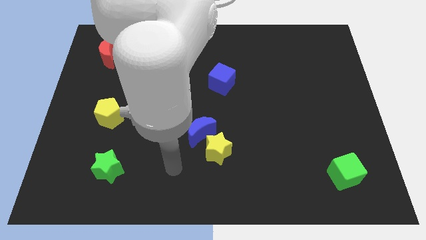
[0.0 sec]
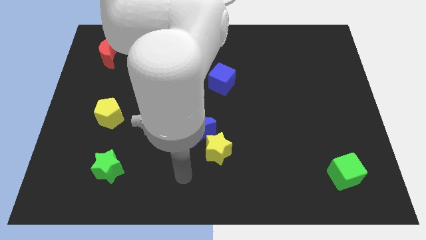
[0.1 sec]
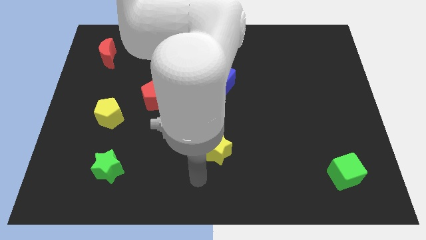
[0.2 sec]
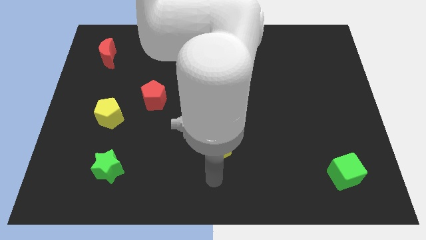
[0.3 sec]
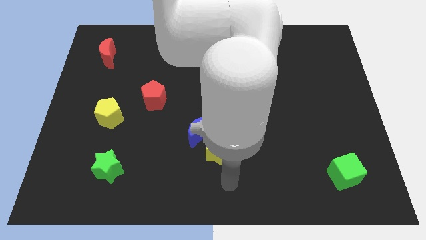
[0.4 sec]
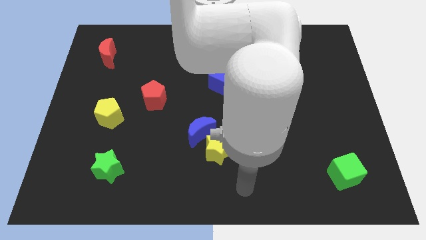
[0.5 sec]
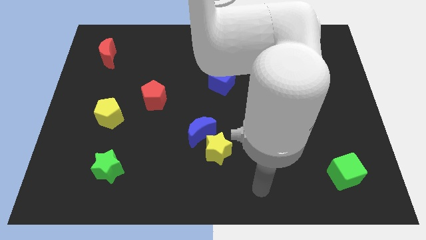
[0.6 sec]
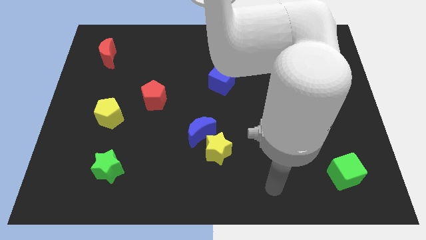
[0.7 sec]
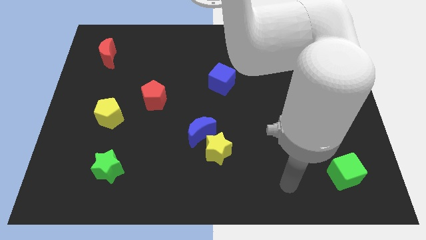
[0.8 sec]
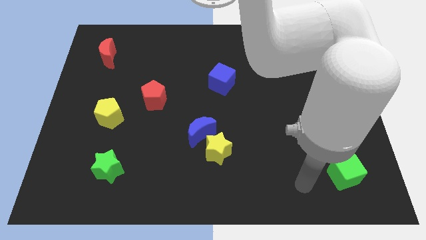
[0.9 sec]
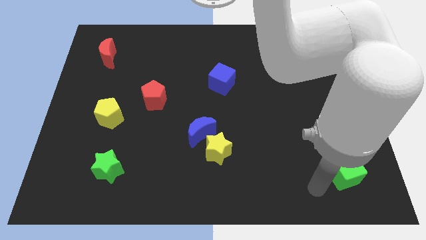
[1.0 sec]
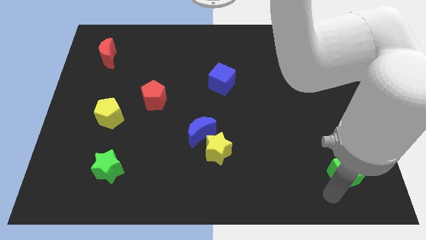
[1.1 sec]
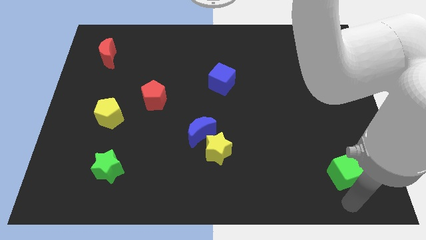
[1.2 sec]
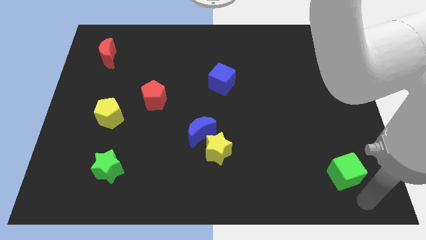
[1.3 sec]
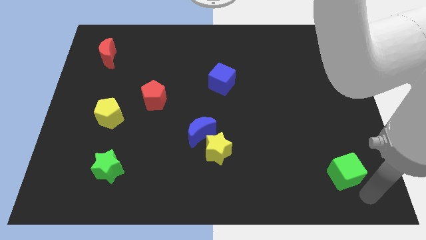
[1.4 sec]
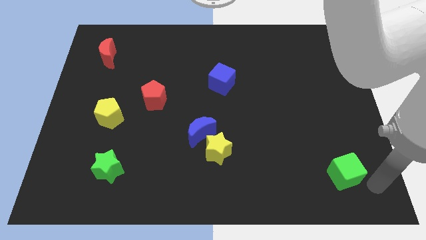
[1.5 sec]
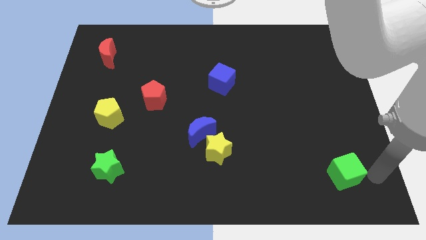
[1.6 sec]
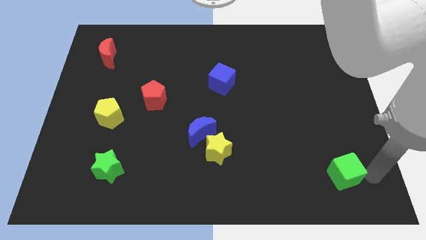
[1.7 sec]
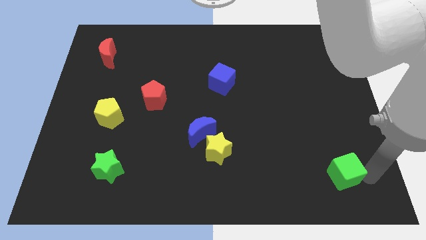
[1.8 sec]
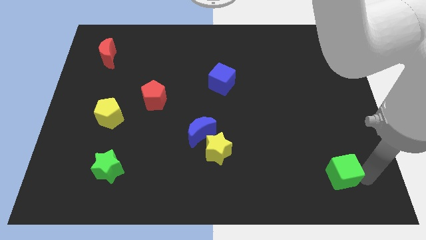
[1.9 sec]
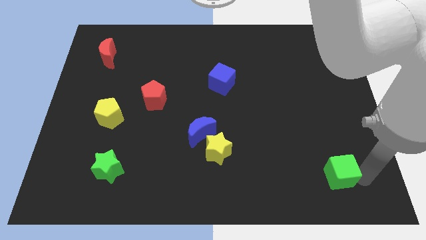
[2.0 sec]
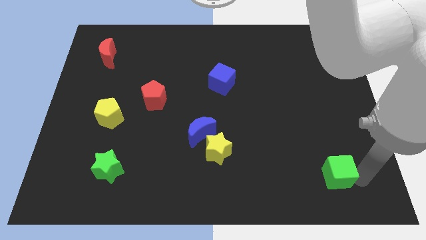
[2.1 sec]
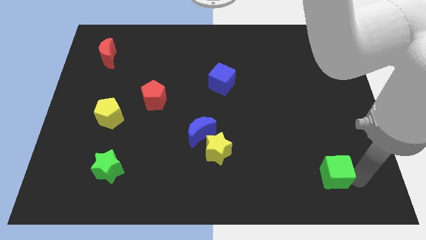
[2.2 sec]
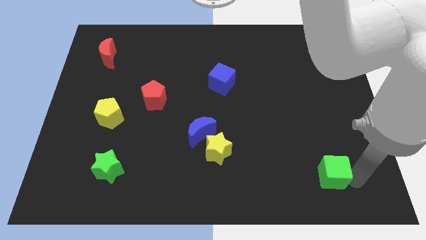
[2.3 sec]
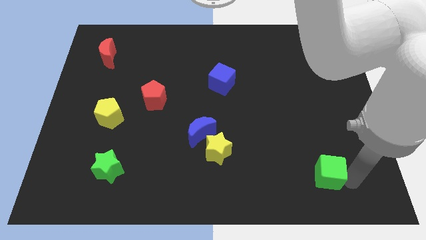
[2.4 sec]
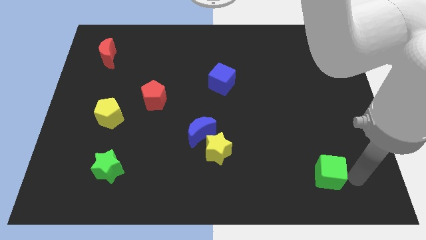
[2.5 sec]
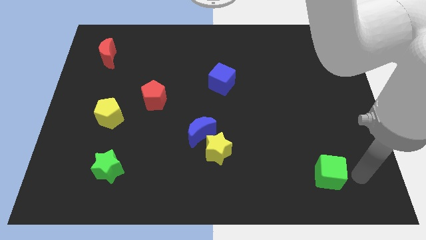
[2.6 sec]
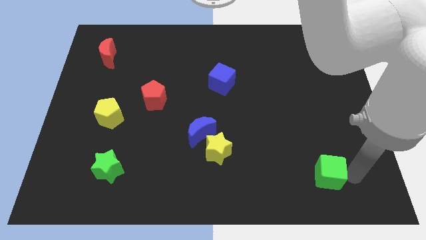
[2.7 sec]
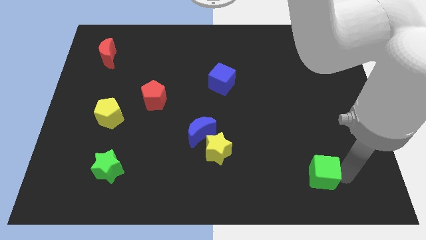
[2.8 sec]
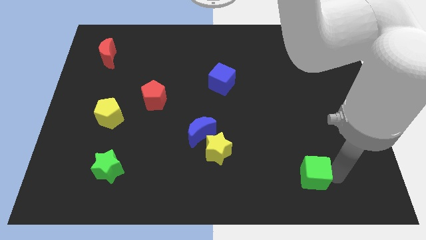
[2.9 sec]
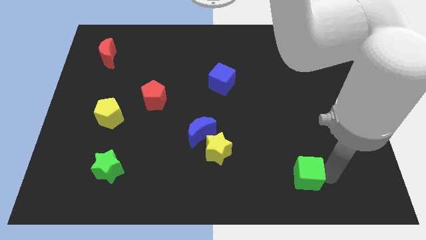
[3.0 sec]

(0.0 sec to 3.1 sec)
push the green cube left somewhat

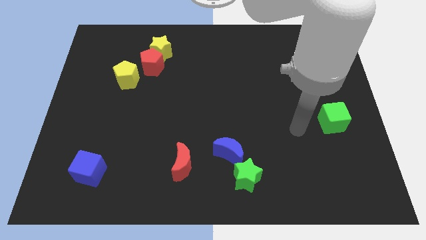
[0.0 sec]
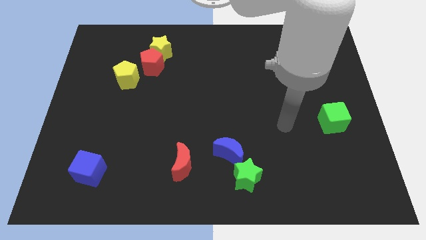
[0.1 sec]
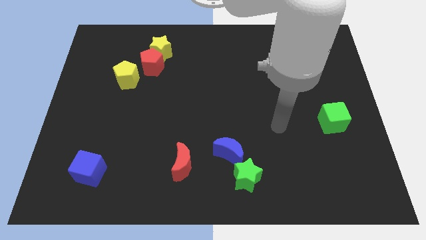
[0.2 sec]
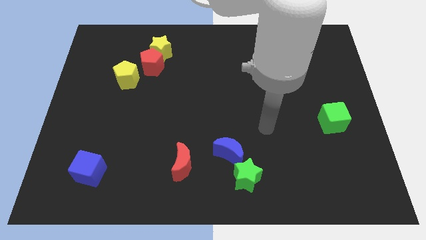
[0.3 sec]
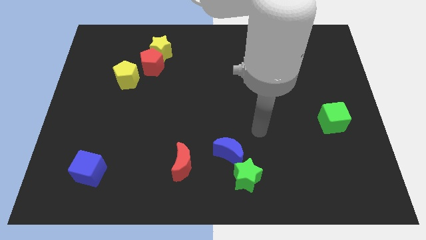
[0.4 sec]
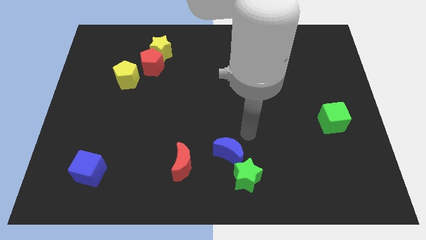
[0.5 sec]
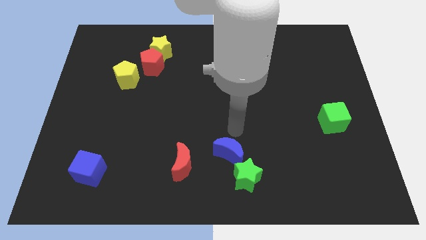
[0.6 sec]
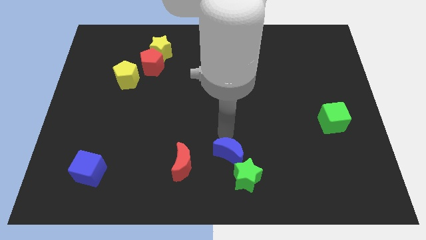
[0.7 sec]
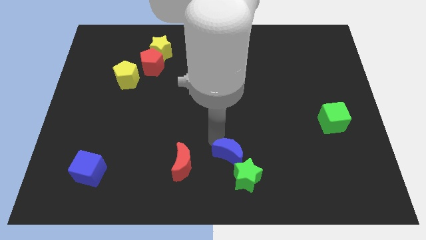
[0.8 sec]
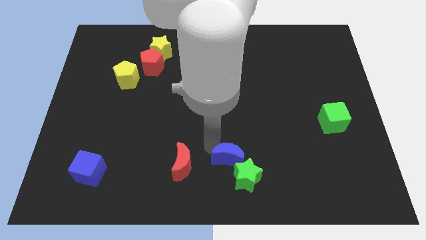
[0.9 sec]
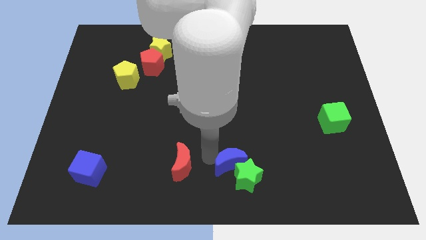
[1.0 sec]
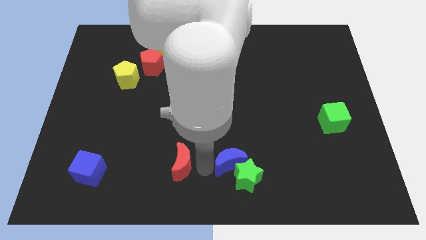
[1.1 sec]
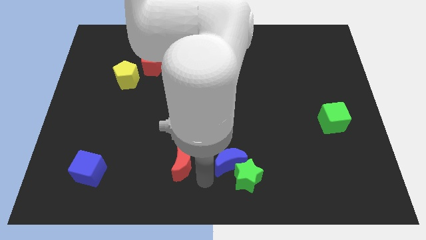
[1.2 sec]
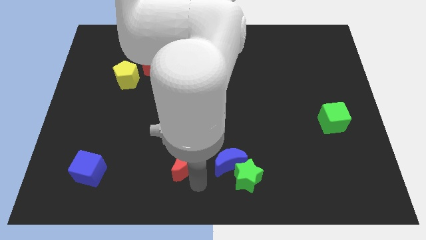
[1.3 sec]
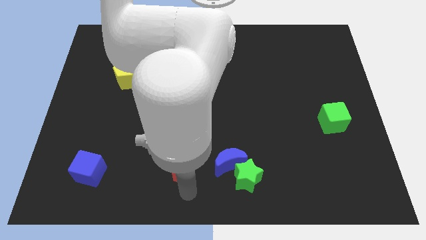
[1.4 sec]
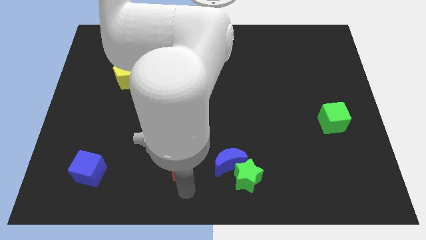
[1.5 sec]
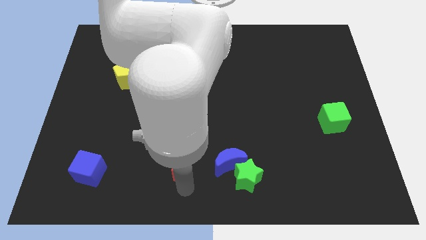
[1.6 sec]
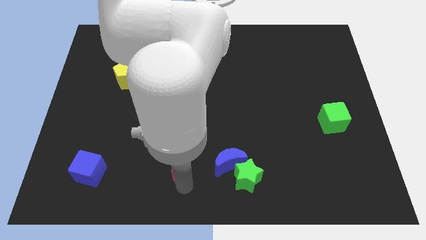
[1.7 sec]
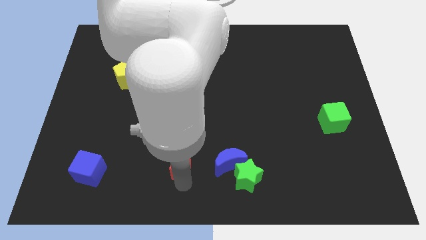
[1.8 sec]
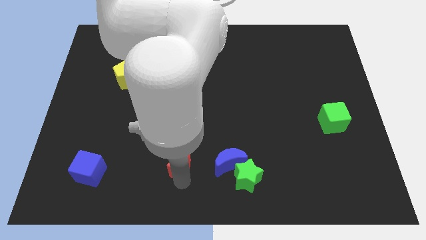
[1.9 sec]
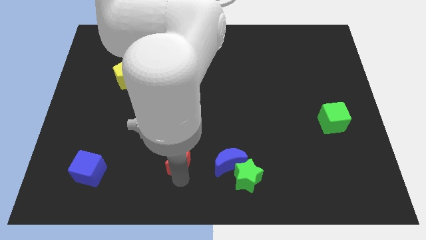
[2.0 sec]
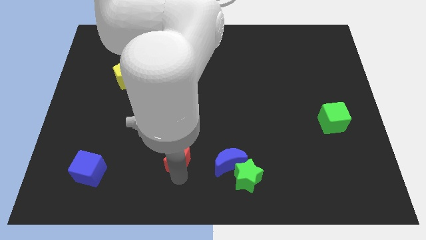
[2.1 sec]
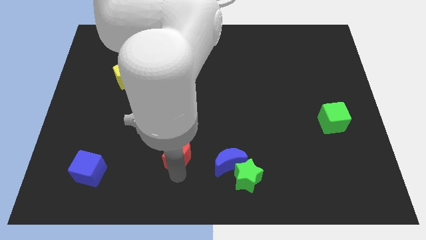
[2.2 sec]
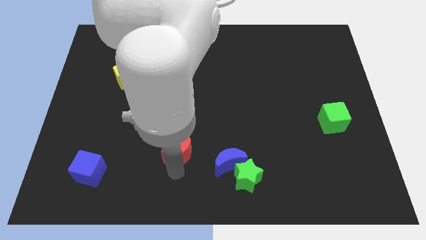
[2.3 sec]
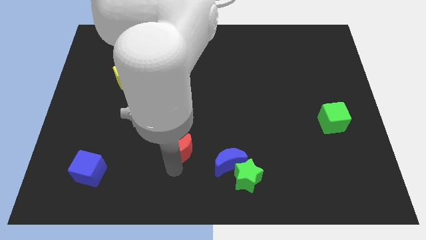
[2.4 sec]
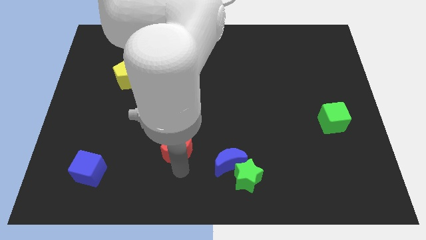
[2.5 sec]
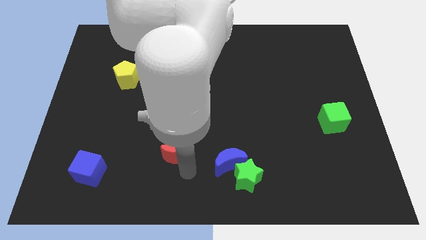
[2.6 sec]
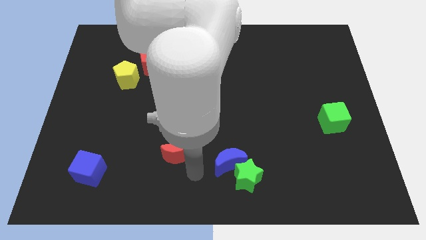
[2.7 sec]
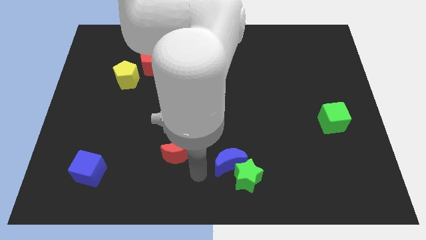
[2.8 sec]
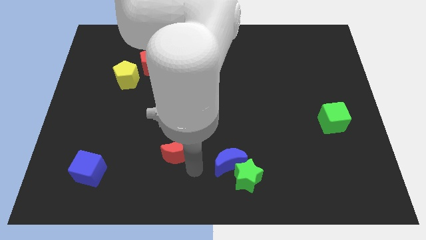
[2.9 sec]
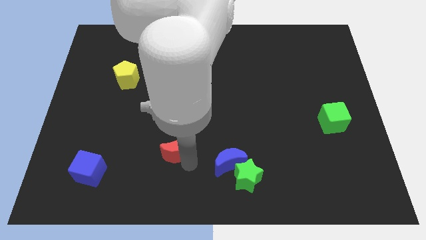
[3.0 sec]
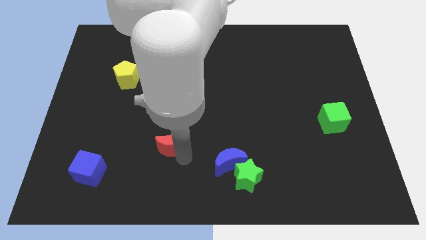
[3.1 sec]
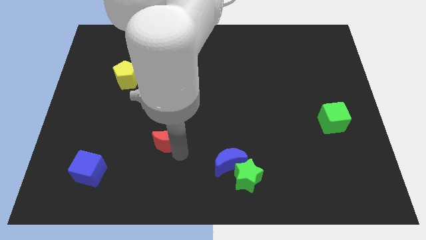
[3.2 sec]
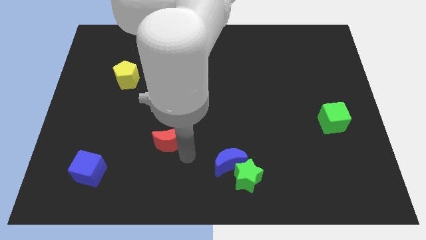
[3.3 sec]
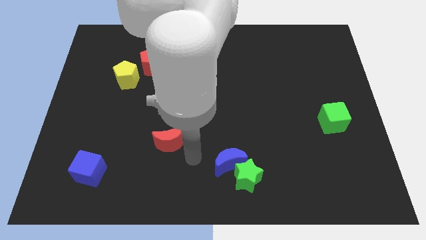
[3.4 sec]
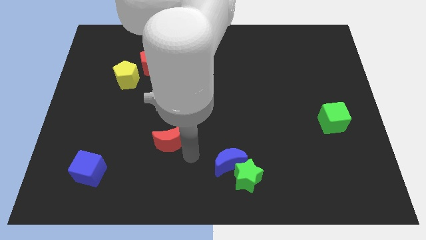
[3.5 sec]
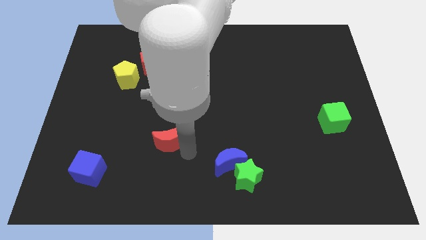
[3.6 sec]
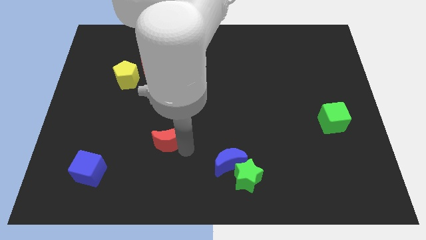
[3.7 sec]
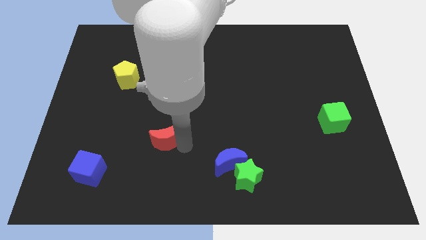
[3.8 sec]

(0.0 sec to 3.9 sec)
slightly slide the red moon upwards and to the left diagonally

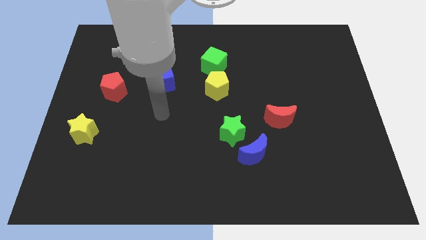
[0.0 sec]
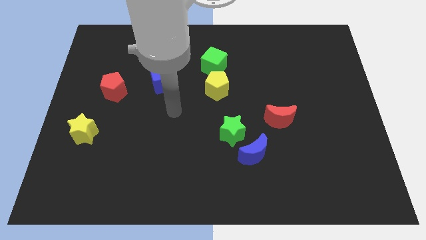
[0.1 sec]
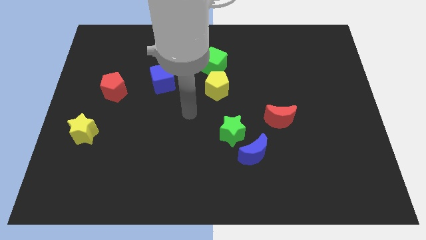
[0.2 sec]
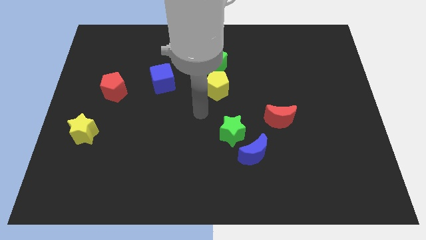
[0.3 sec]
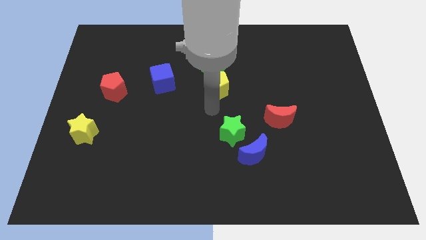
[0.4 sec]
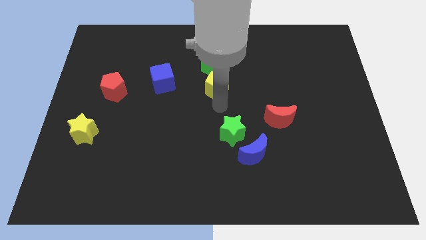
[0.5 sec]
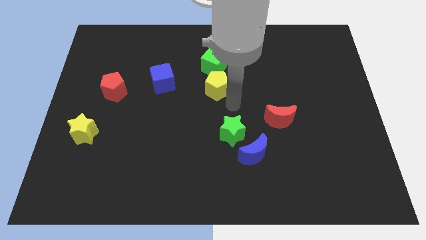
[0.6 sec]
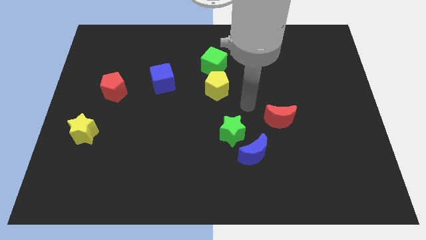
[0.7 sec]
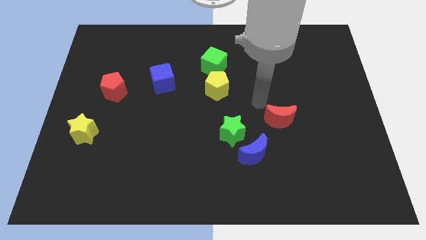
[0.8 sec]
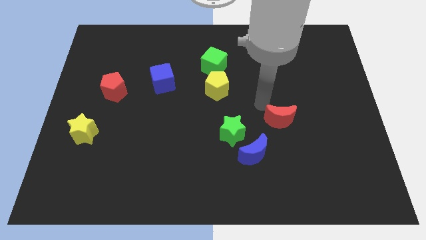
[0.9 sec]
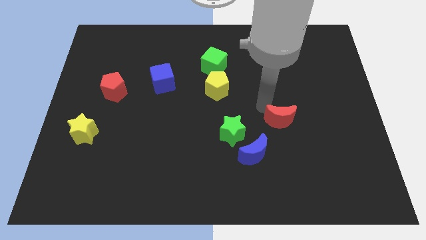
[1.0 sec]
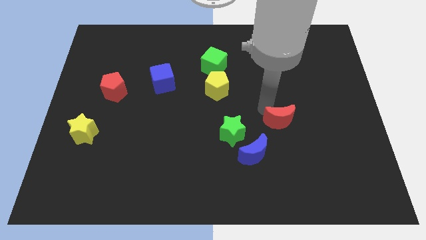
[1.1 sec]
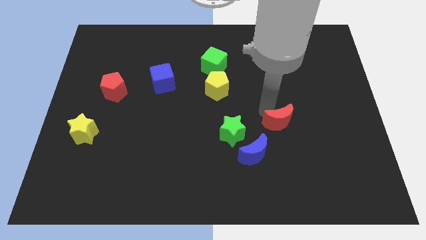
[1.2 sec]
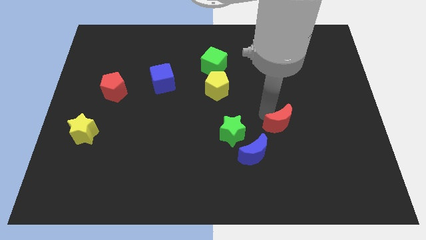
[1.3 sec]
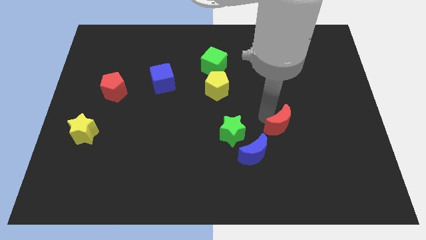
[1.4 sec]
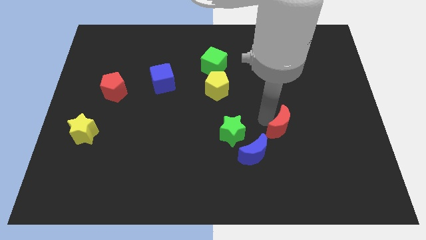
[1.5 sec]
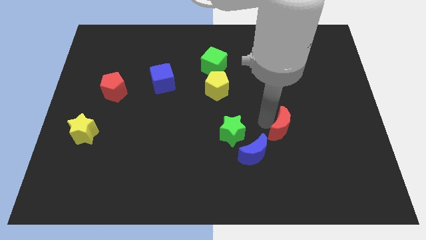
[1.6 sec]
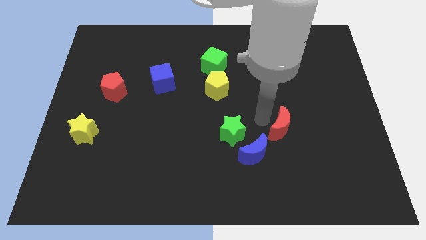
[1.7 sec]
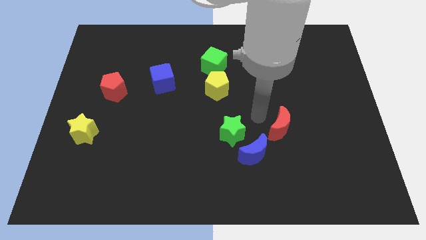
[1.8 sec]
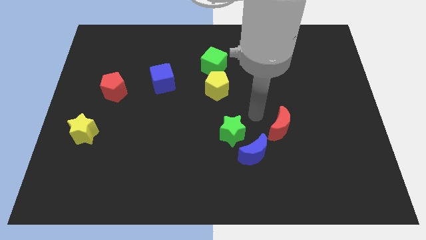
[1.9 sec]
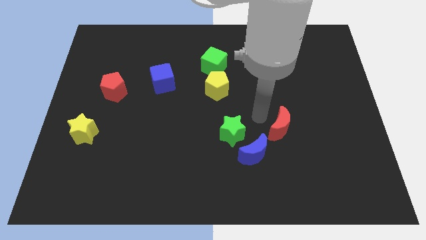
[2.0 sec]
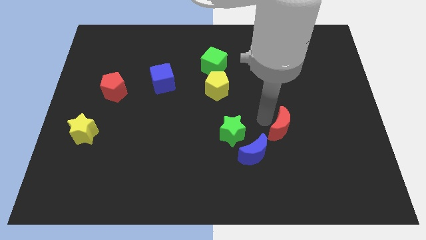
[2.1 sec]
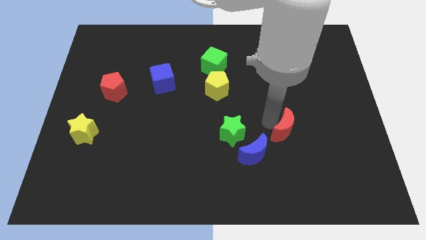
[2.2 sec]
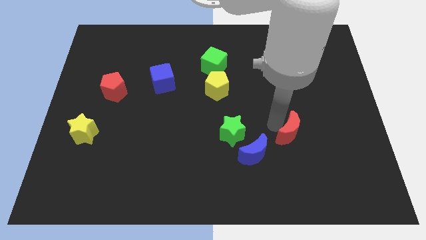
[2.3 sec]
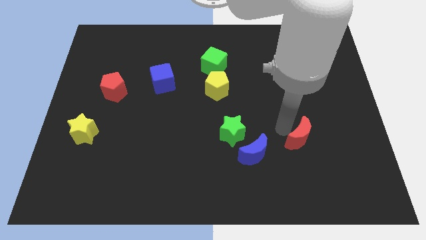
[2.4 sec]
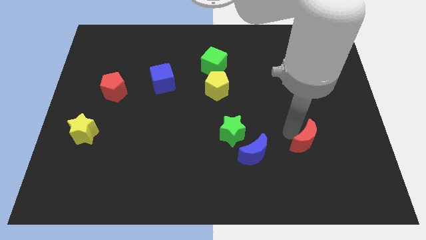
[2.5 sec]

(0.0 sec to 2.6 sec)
slide the red moon downwards and right diagonally a little bit
